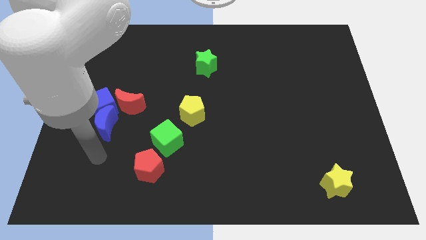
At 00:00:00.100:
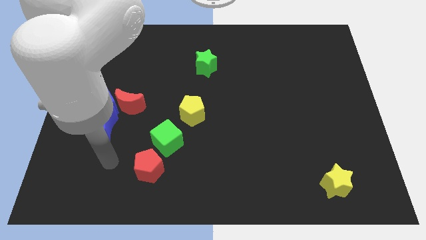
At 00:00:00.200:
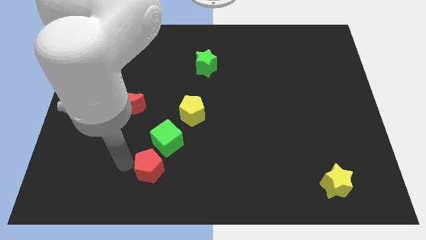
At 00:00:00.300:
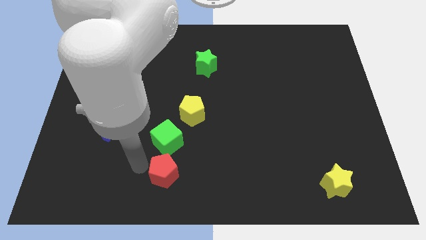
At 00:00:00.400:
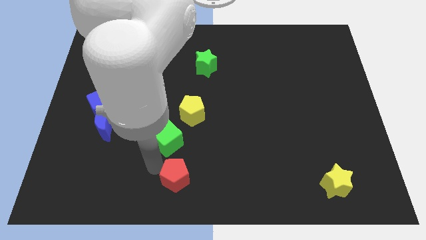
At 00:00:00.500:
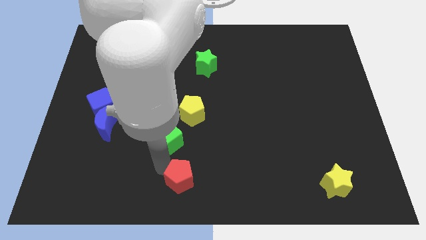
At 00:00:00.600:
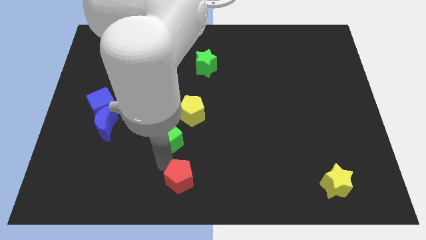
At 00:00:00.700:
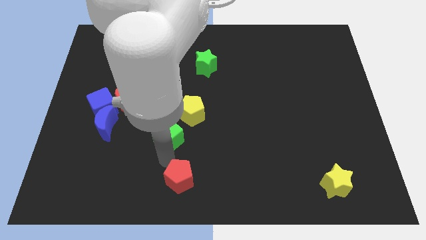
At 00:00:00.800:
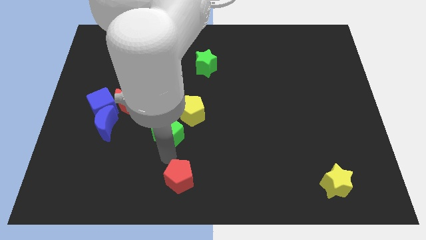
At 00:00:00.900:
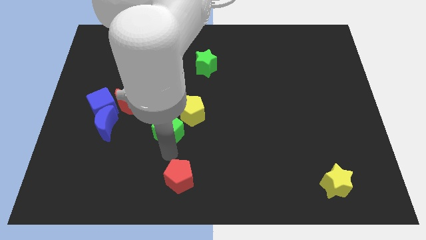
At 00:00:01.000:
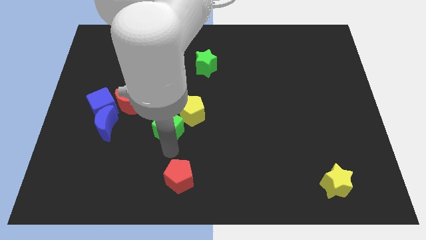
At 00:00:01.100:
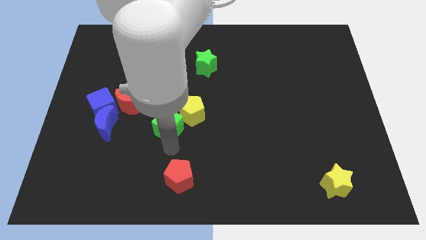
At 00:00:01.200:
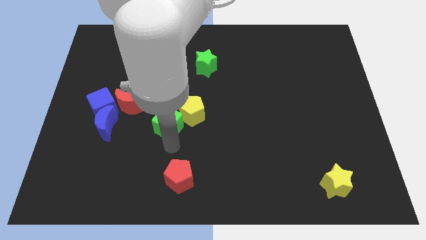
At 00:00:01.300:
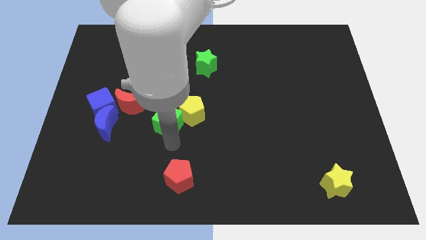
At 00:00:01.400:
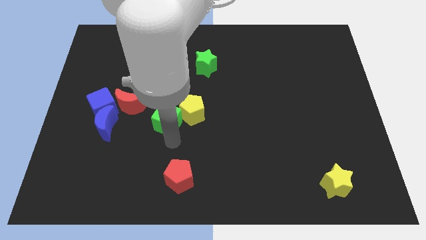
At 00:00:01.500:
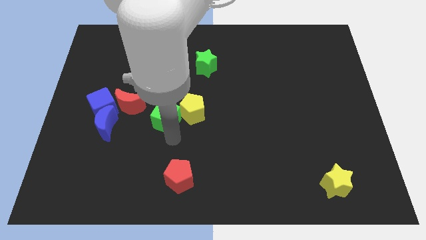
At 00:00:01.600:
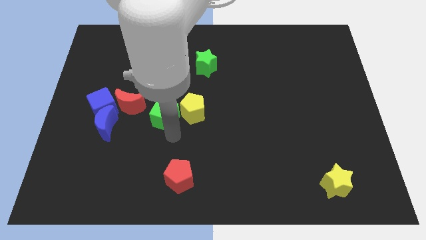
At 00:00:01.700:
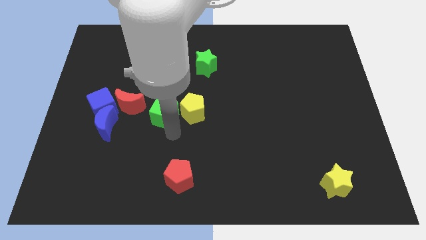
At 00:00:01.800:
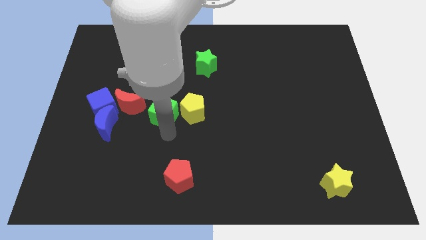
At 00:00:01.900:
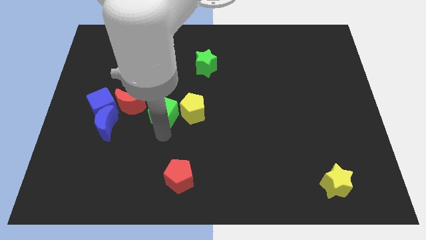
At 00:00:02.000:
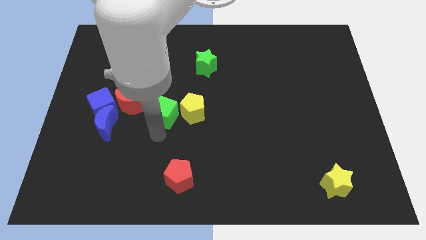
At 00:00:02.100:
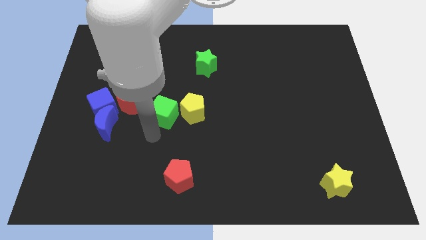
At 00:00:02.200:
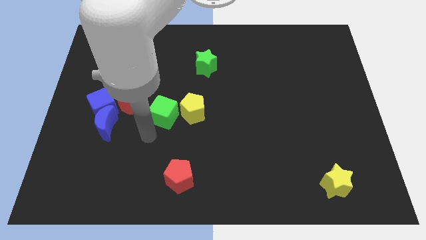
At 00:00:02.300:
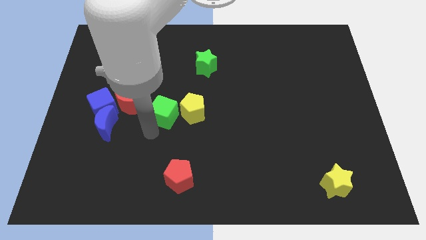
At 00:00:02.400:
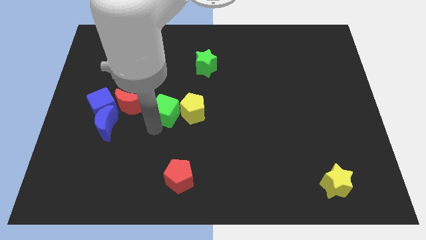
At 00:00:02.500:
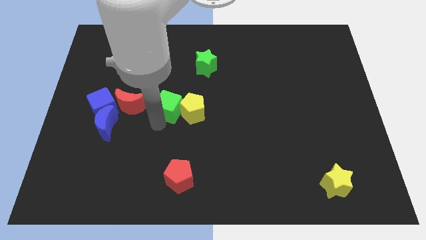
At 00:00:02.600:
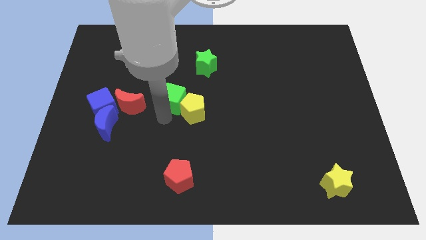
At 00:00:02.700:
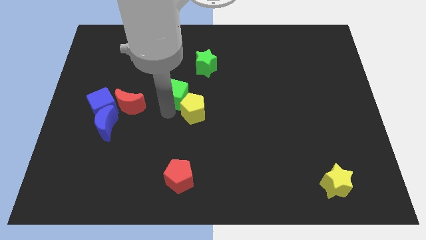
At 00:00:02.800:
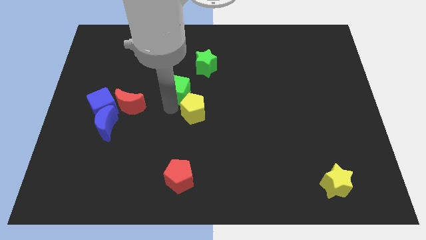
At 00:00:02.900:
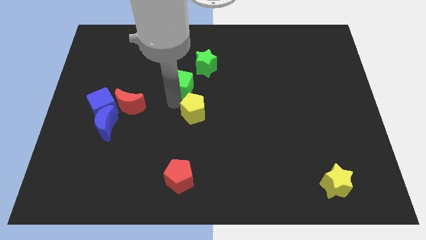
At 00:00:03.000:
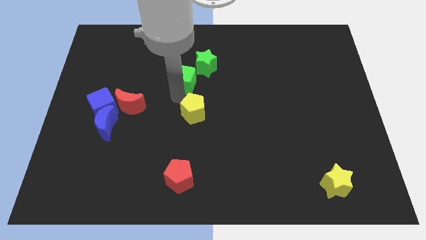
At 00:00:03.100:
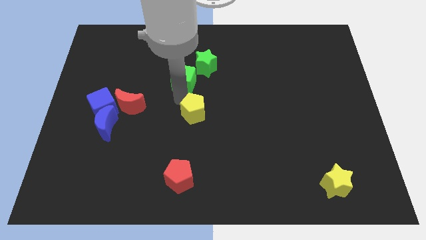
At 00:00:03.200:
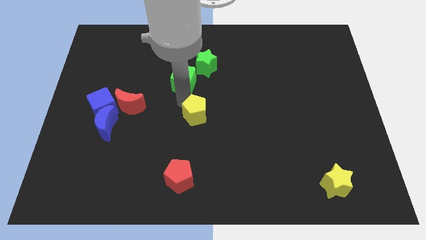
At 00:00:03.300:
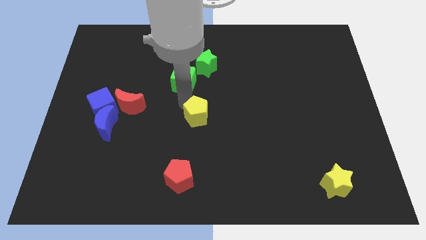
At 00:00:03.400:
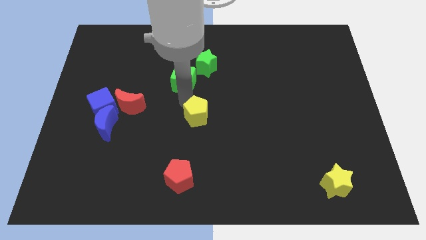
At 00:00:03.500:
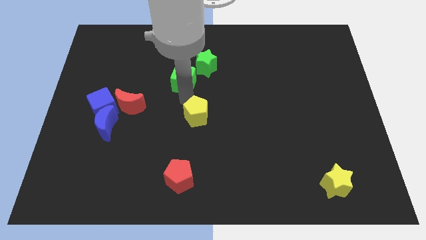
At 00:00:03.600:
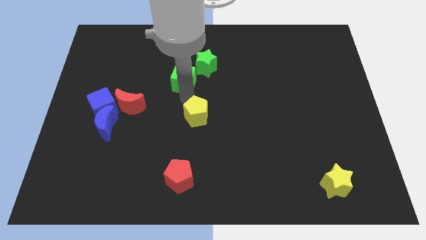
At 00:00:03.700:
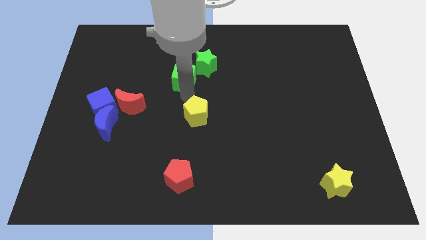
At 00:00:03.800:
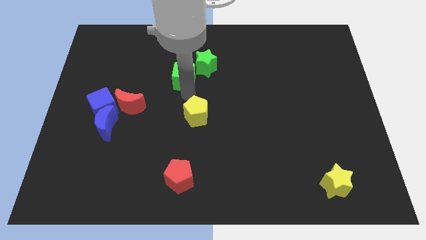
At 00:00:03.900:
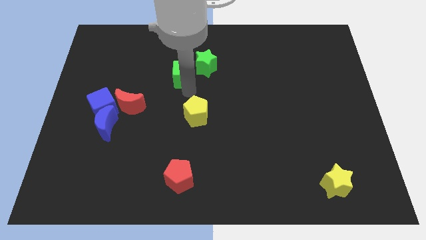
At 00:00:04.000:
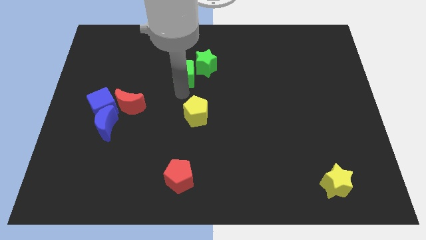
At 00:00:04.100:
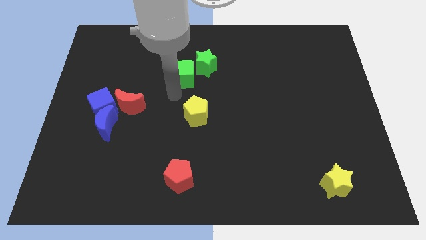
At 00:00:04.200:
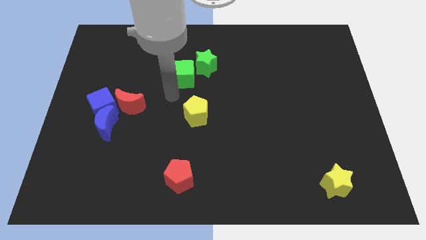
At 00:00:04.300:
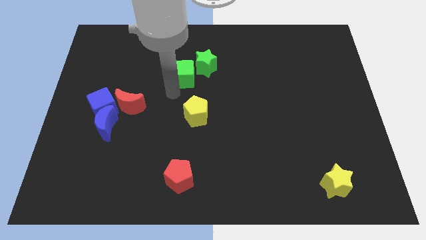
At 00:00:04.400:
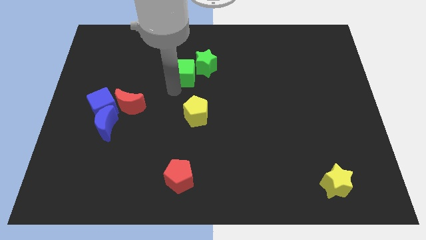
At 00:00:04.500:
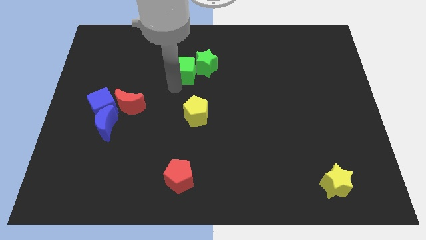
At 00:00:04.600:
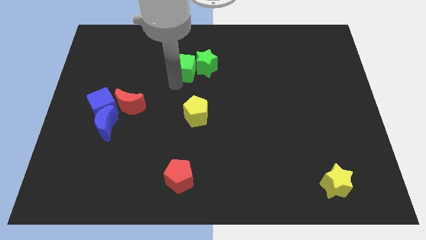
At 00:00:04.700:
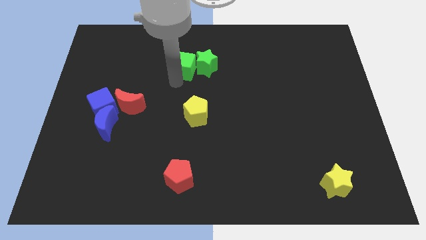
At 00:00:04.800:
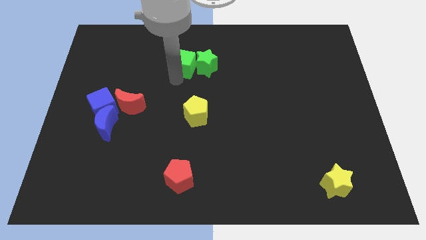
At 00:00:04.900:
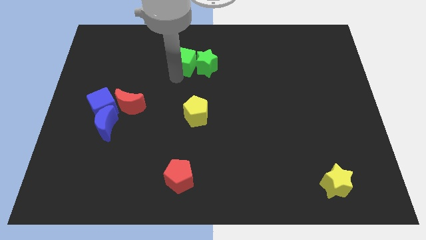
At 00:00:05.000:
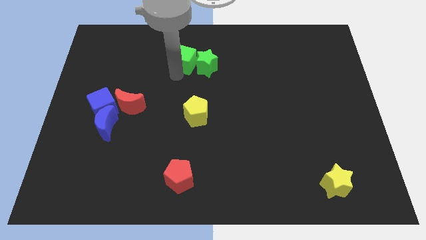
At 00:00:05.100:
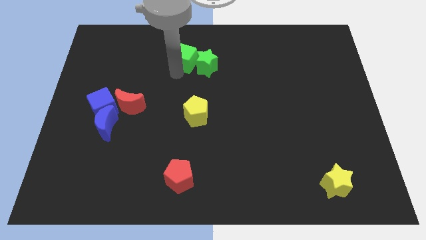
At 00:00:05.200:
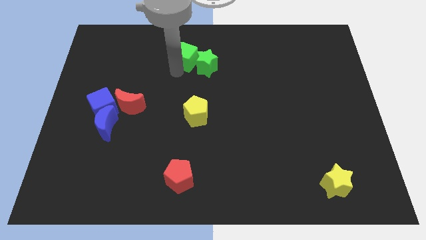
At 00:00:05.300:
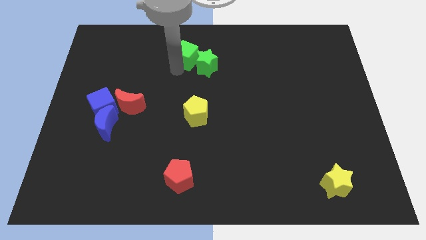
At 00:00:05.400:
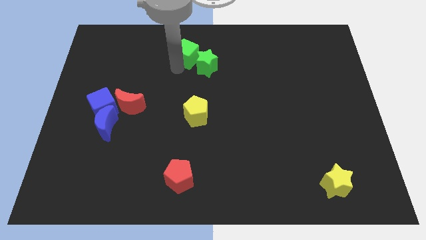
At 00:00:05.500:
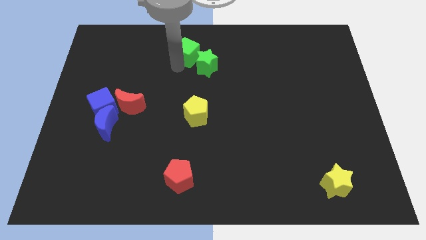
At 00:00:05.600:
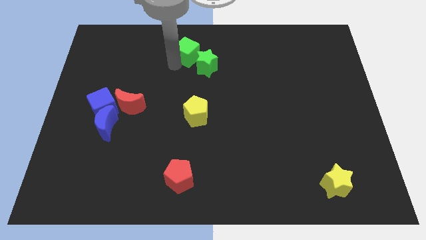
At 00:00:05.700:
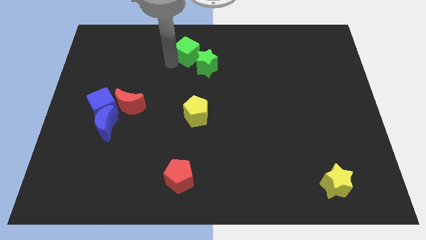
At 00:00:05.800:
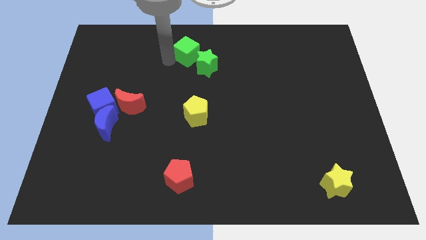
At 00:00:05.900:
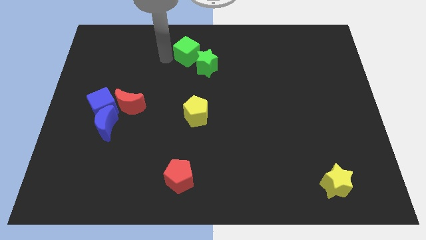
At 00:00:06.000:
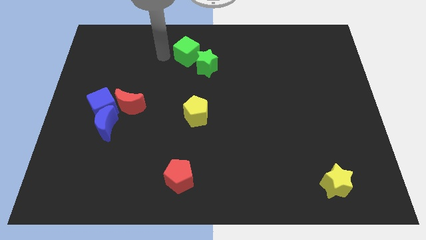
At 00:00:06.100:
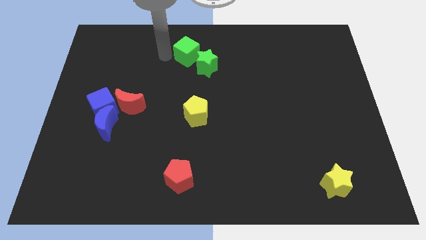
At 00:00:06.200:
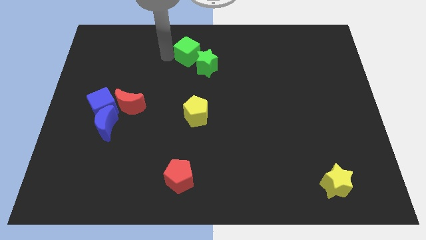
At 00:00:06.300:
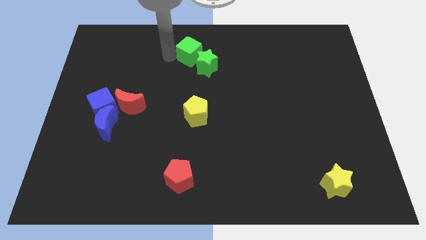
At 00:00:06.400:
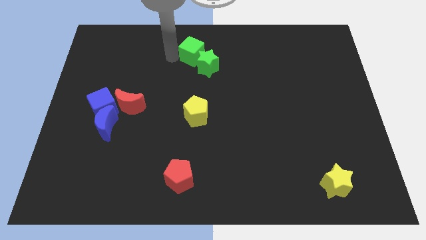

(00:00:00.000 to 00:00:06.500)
put the green cube to the top
